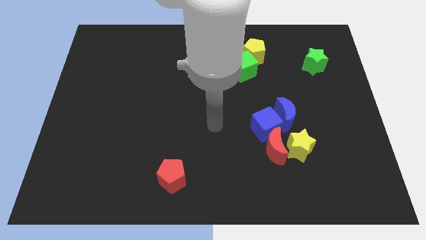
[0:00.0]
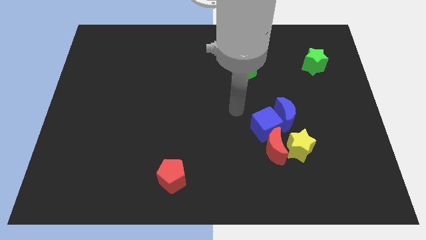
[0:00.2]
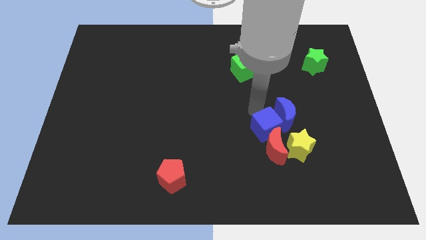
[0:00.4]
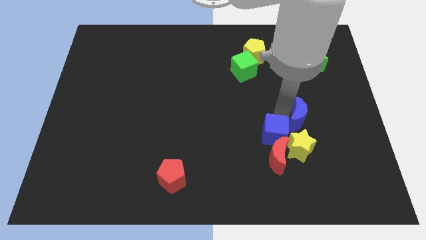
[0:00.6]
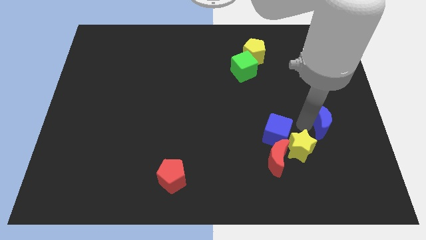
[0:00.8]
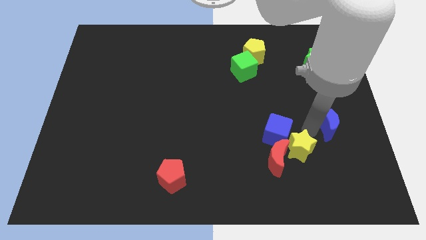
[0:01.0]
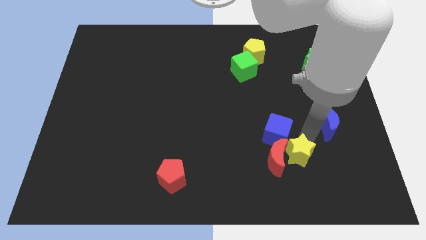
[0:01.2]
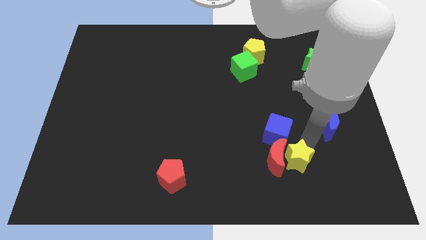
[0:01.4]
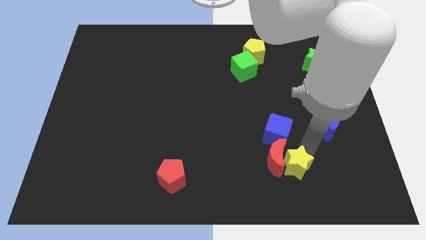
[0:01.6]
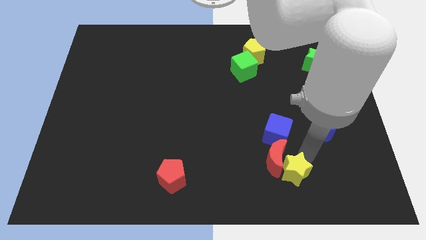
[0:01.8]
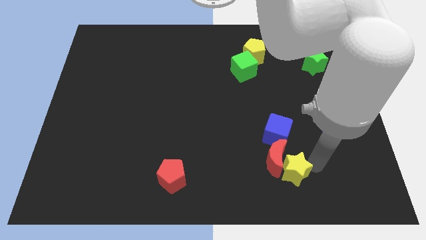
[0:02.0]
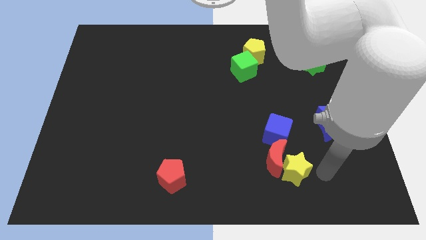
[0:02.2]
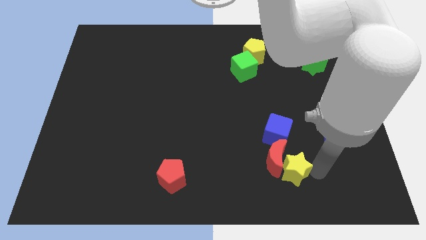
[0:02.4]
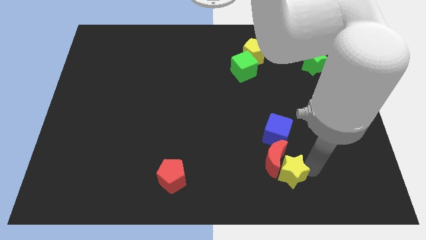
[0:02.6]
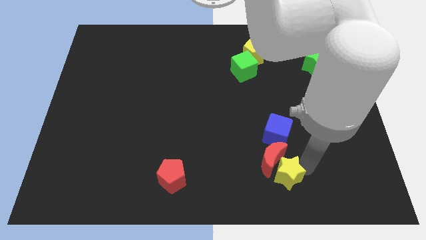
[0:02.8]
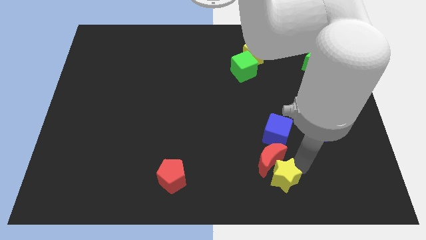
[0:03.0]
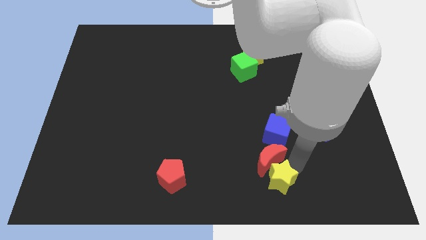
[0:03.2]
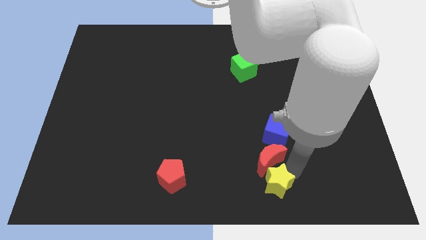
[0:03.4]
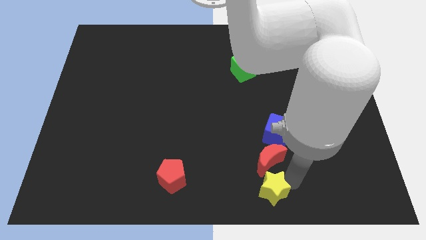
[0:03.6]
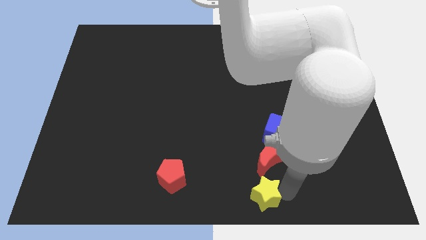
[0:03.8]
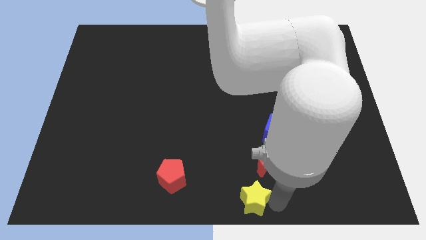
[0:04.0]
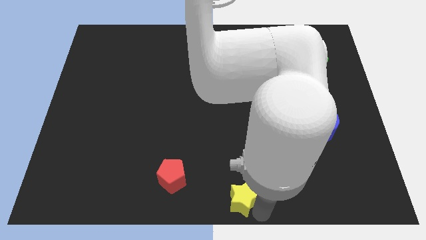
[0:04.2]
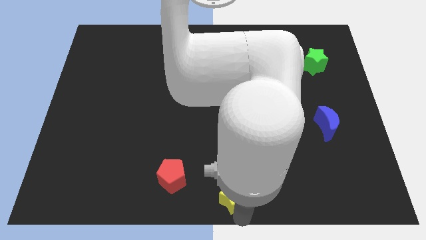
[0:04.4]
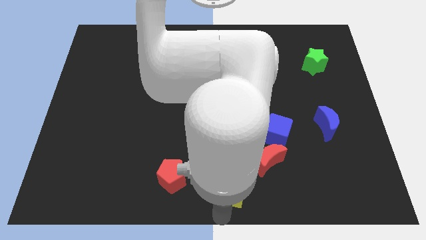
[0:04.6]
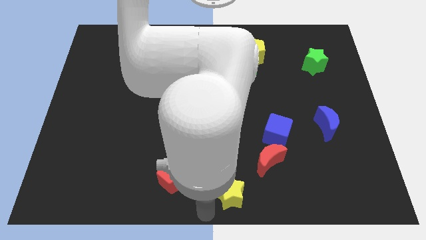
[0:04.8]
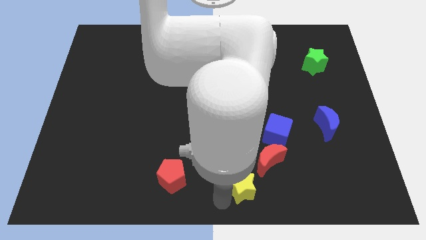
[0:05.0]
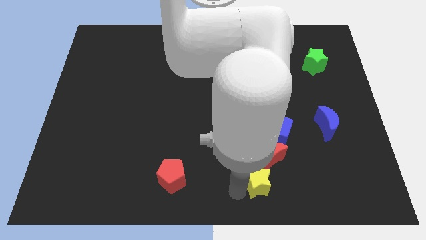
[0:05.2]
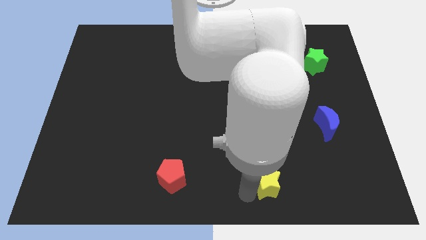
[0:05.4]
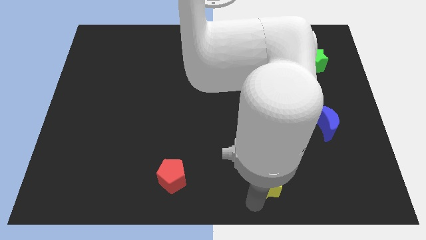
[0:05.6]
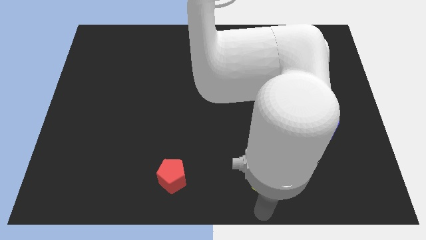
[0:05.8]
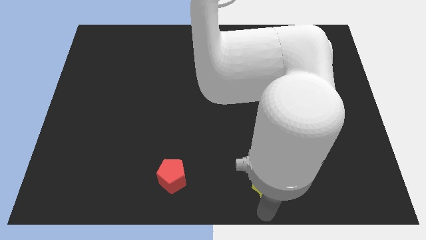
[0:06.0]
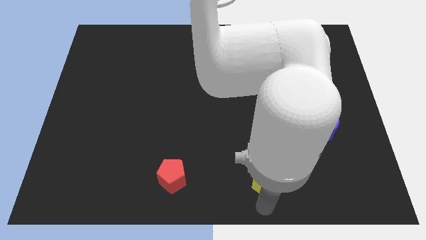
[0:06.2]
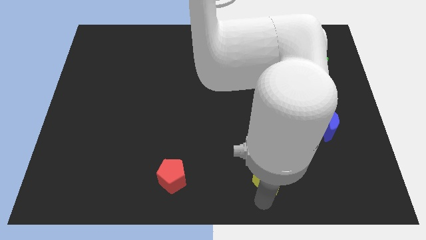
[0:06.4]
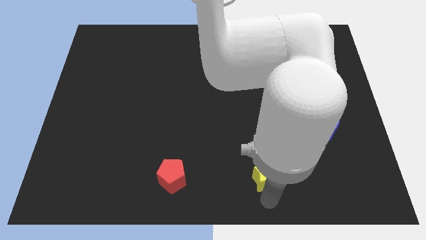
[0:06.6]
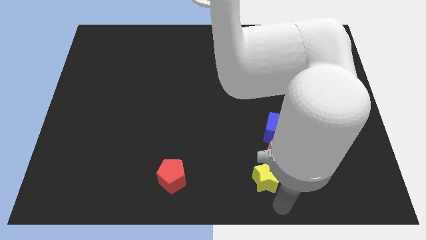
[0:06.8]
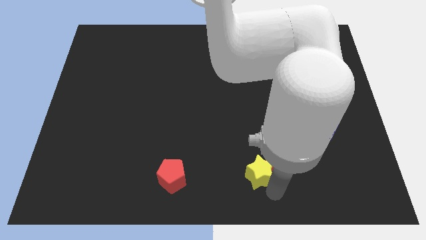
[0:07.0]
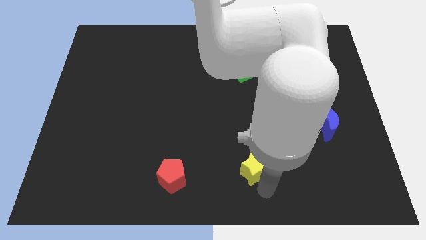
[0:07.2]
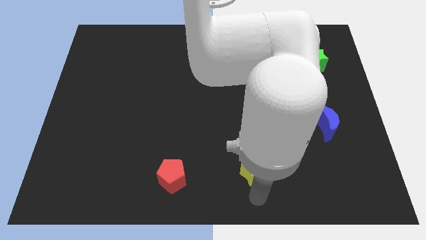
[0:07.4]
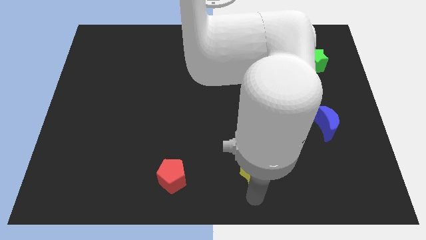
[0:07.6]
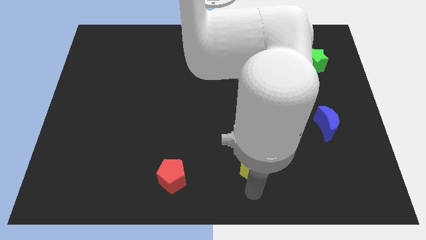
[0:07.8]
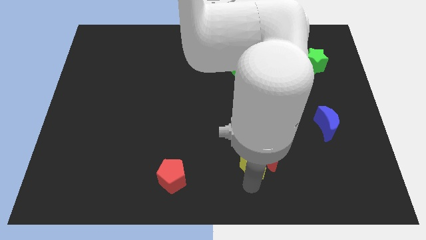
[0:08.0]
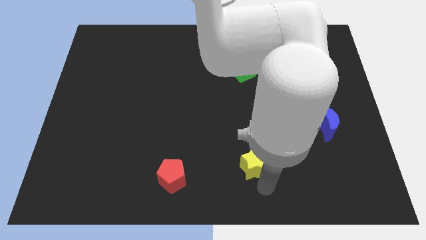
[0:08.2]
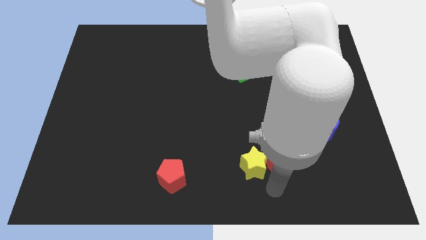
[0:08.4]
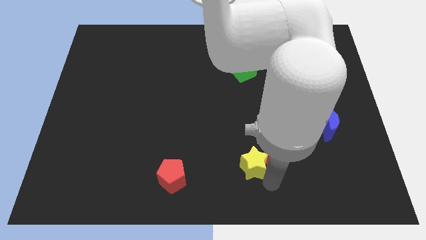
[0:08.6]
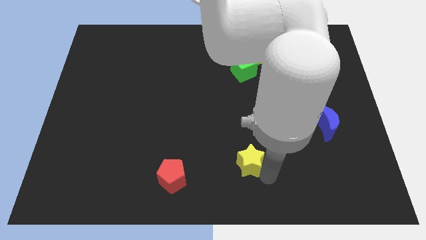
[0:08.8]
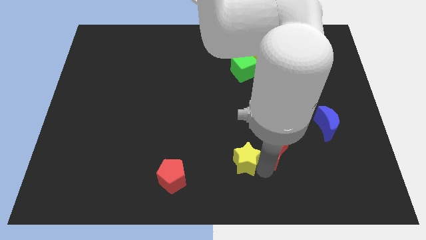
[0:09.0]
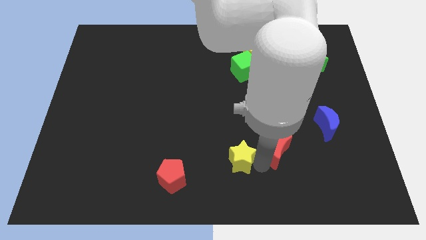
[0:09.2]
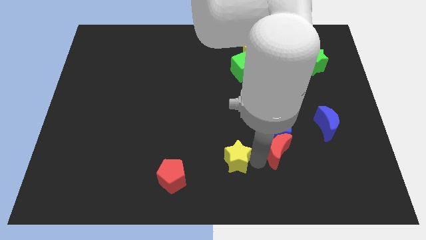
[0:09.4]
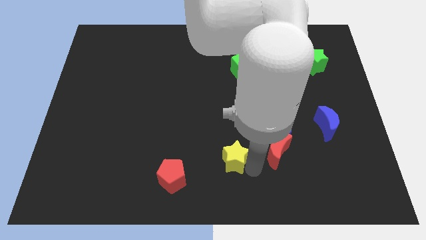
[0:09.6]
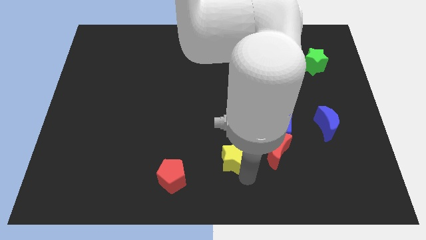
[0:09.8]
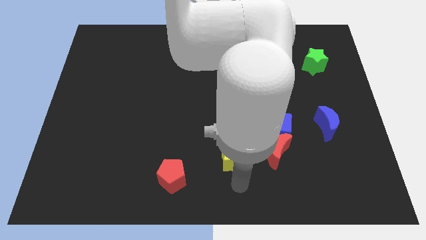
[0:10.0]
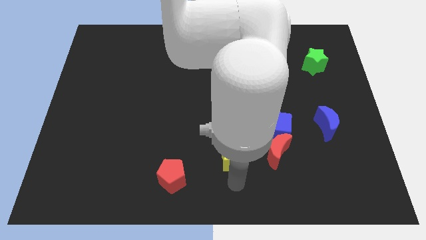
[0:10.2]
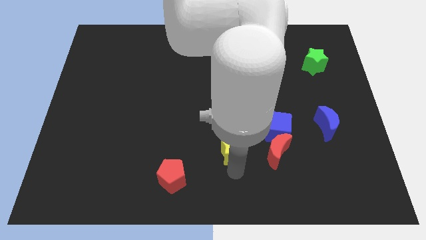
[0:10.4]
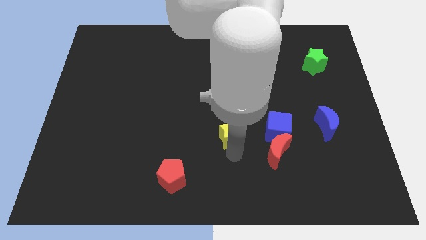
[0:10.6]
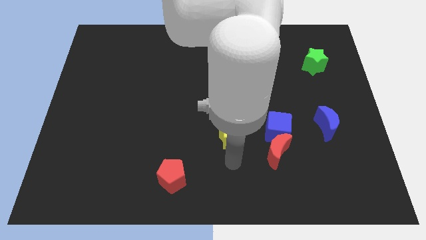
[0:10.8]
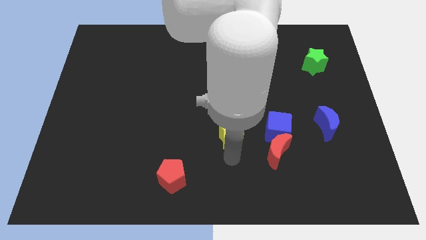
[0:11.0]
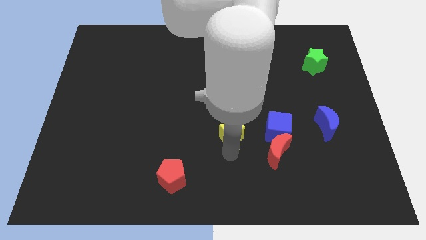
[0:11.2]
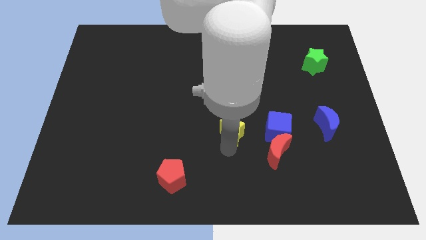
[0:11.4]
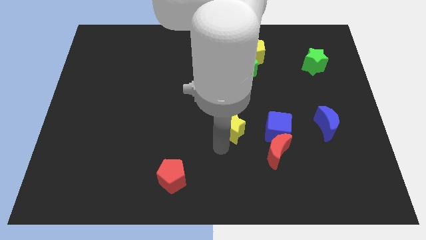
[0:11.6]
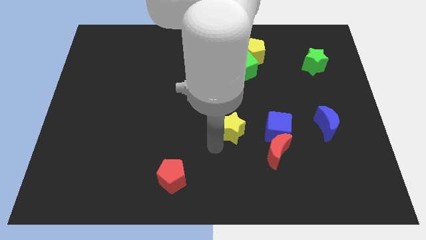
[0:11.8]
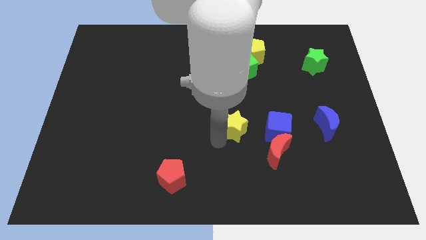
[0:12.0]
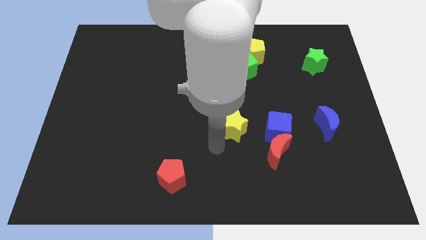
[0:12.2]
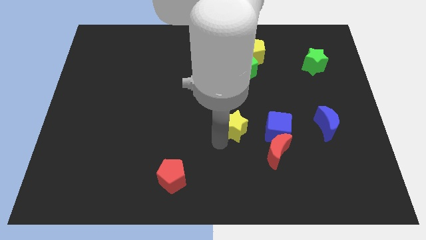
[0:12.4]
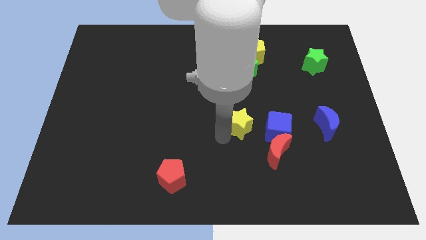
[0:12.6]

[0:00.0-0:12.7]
move the yellow star to the top left side of the blue cube
